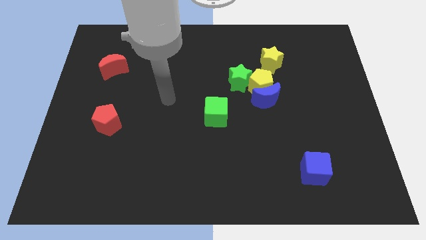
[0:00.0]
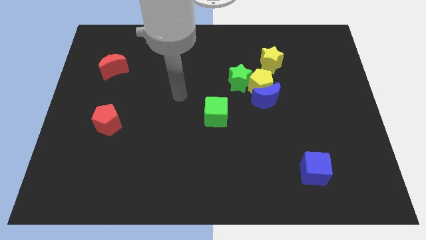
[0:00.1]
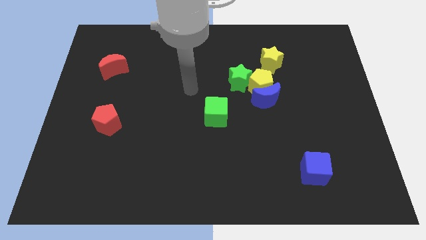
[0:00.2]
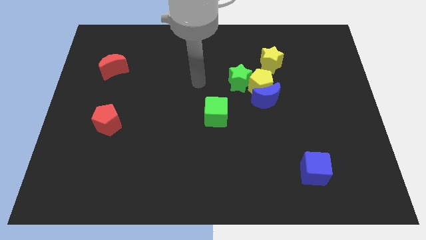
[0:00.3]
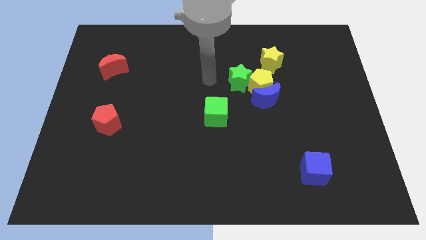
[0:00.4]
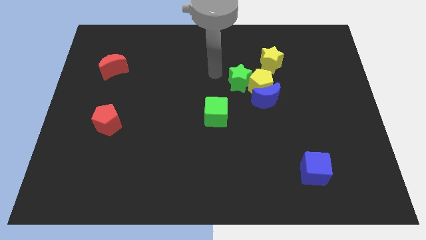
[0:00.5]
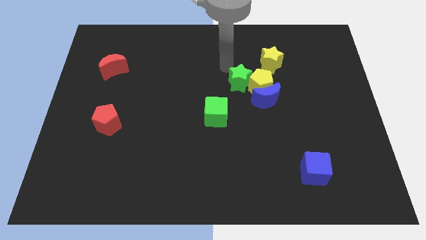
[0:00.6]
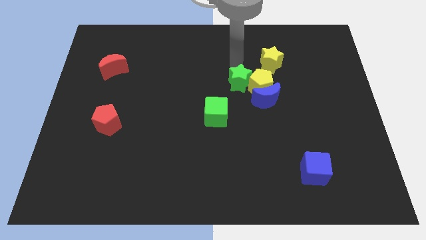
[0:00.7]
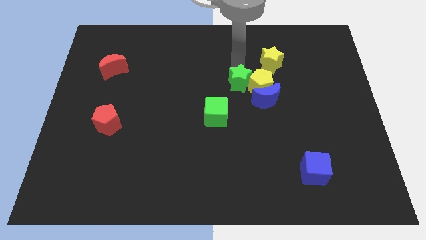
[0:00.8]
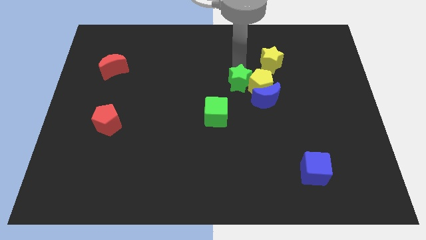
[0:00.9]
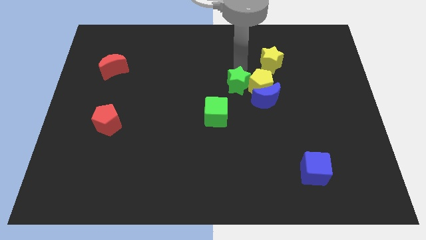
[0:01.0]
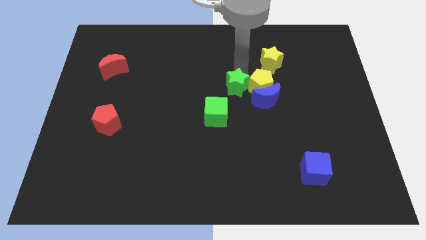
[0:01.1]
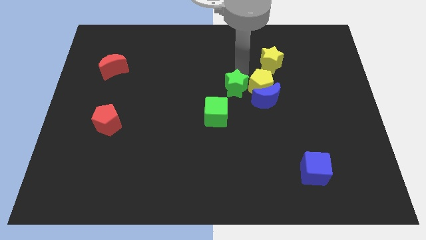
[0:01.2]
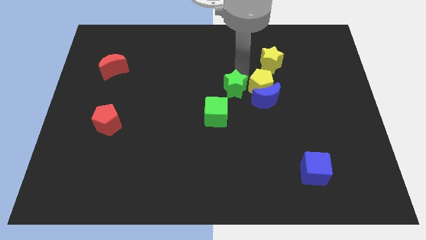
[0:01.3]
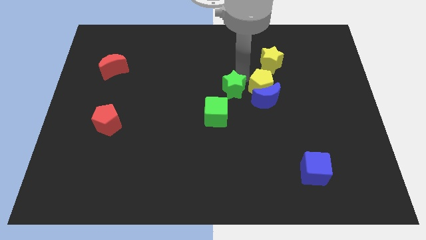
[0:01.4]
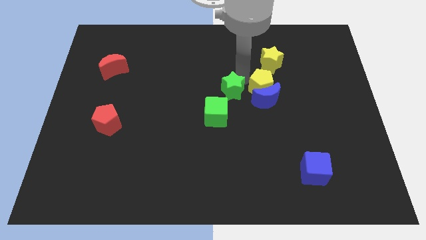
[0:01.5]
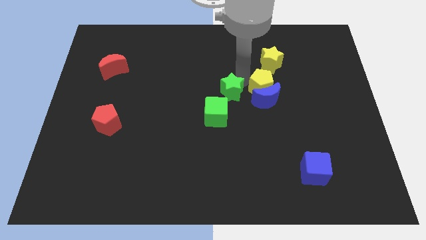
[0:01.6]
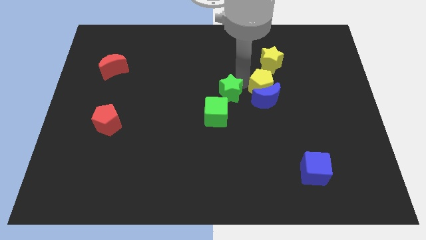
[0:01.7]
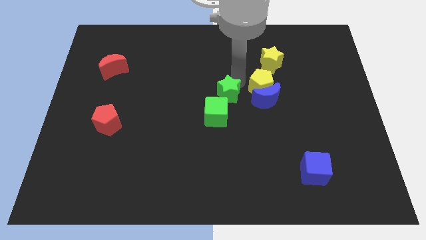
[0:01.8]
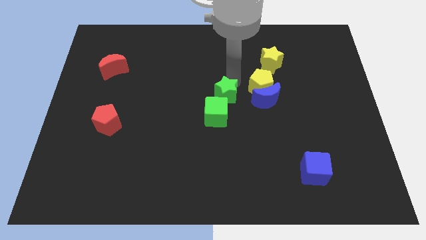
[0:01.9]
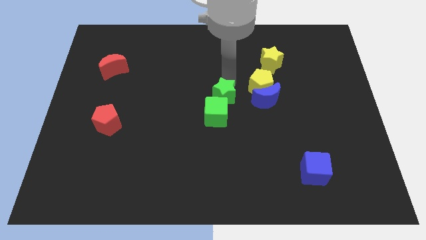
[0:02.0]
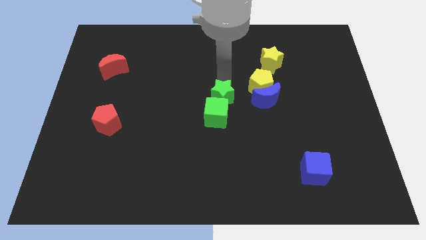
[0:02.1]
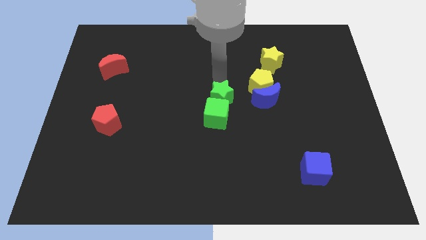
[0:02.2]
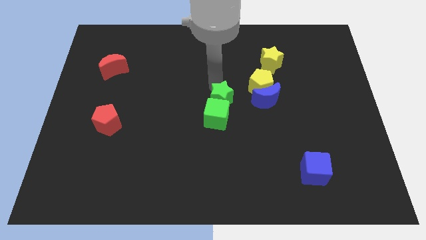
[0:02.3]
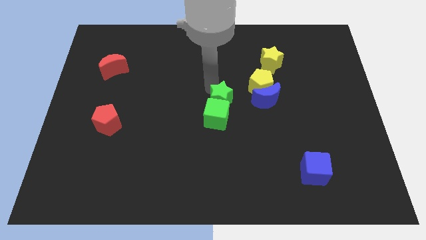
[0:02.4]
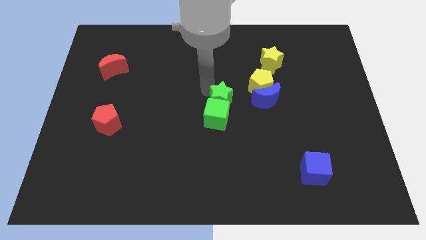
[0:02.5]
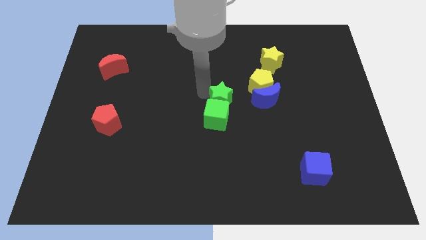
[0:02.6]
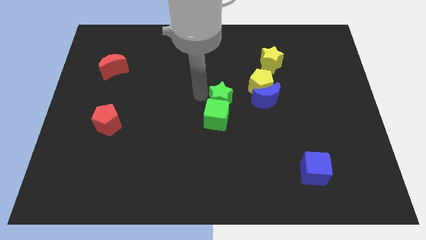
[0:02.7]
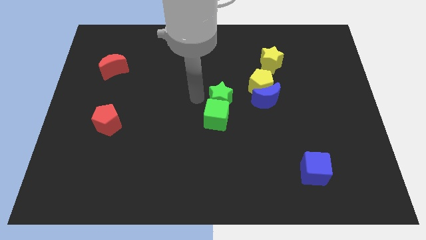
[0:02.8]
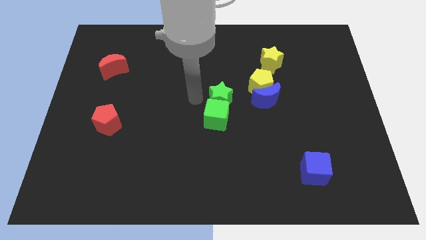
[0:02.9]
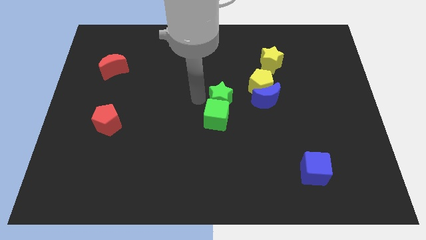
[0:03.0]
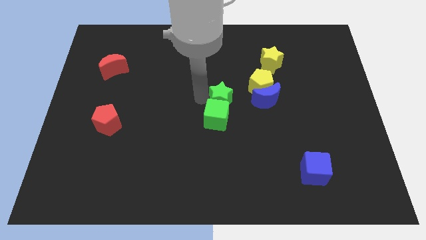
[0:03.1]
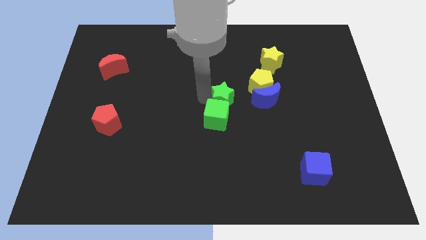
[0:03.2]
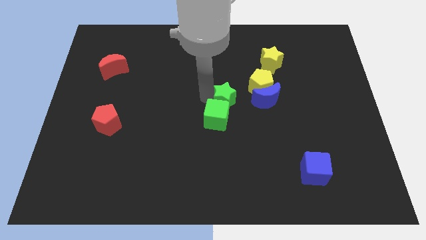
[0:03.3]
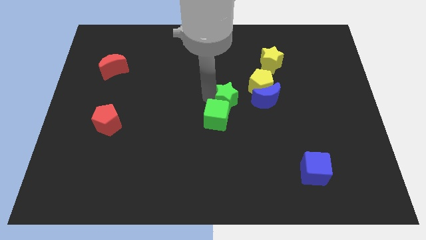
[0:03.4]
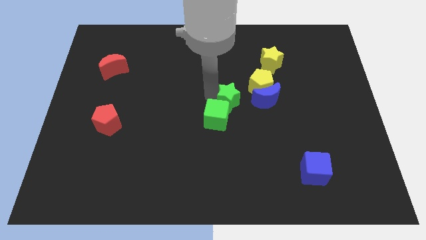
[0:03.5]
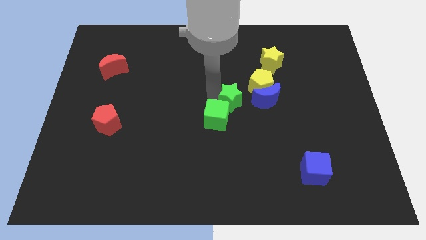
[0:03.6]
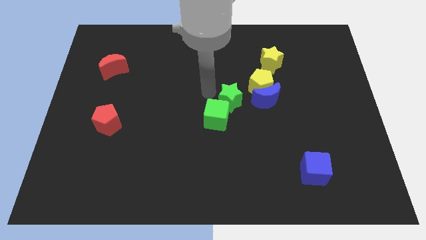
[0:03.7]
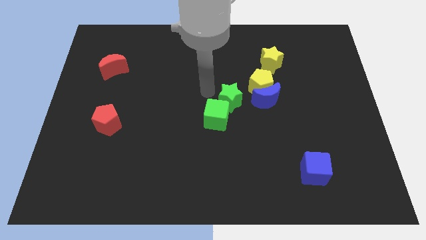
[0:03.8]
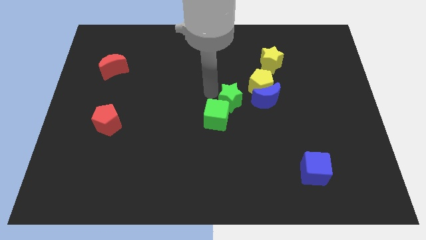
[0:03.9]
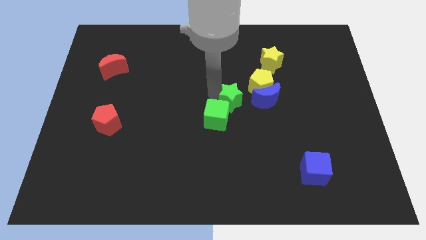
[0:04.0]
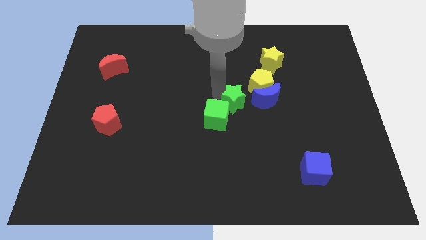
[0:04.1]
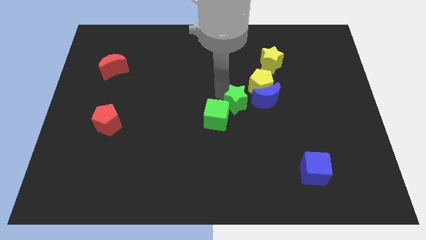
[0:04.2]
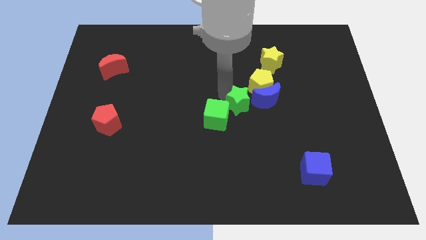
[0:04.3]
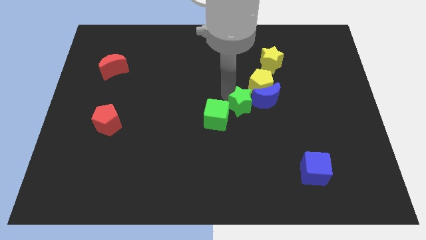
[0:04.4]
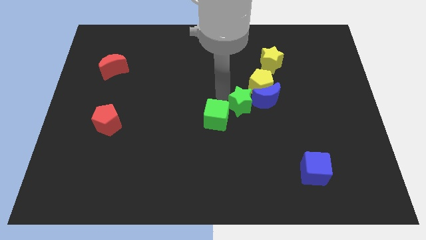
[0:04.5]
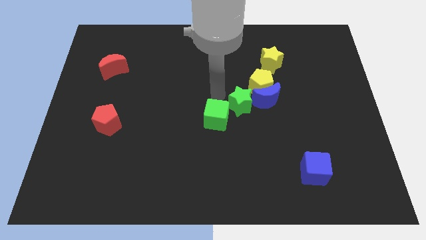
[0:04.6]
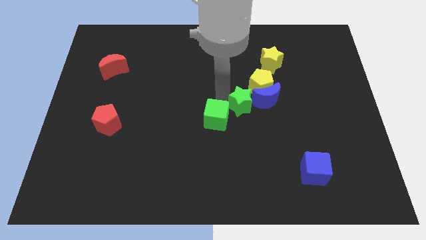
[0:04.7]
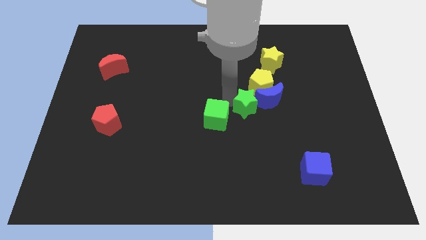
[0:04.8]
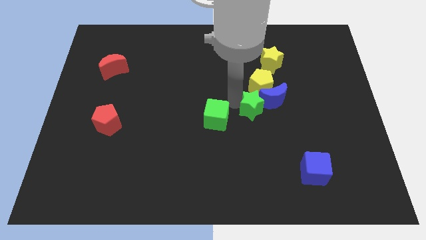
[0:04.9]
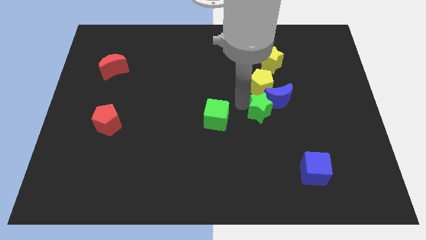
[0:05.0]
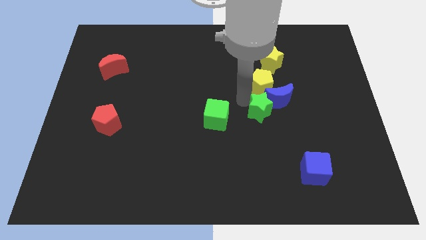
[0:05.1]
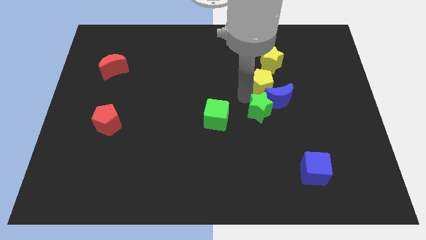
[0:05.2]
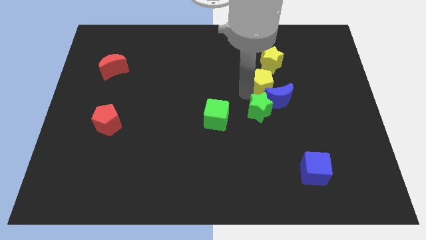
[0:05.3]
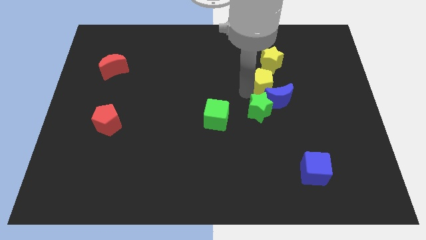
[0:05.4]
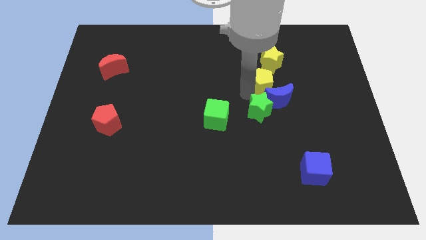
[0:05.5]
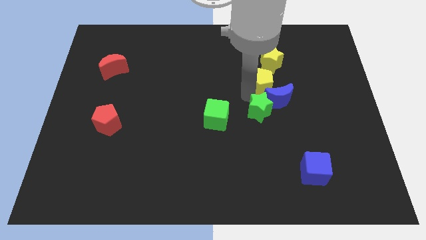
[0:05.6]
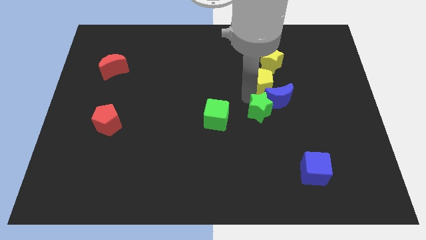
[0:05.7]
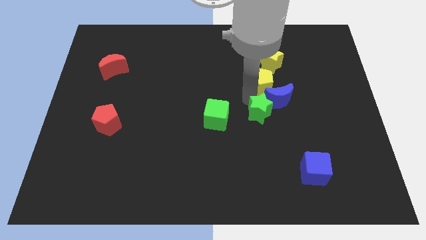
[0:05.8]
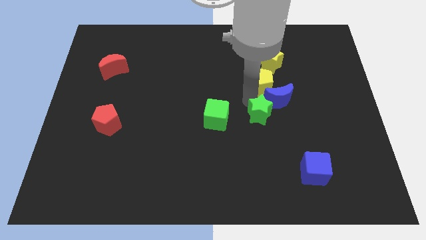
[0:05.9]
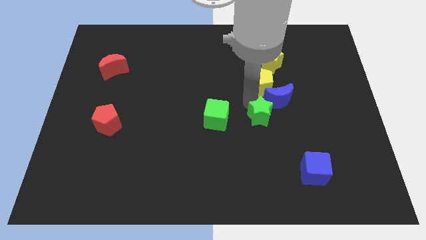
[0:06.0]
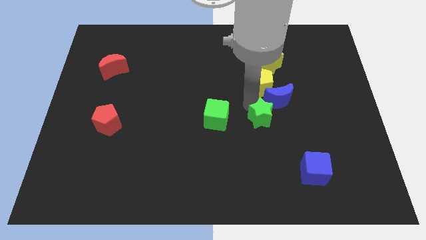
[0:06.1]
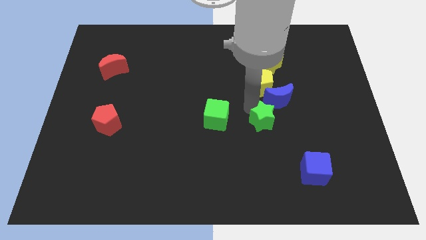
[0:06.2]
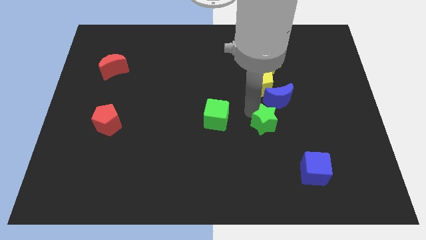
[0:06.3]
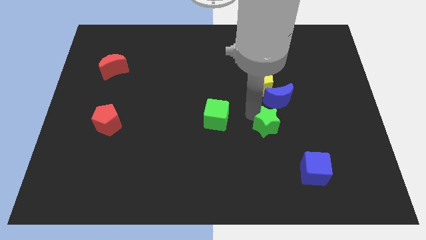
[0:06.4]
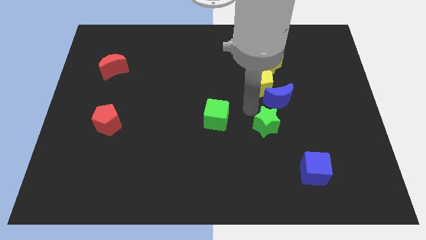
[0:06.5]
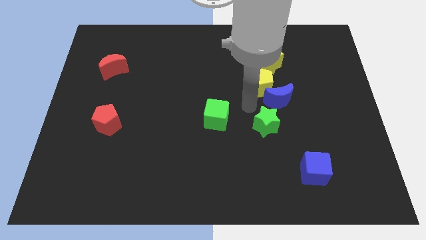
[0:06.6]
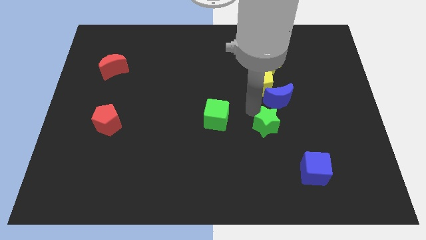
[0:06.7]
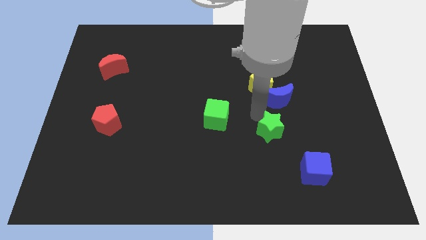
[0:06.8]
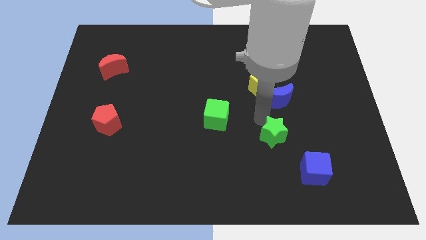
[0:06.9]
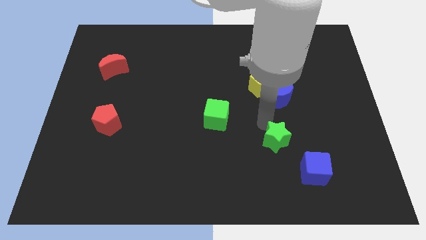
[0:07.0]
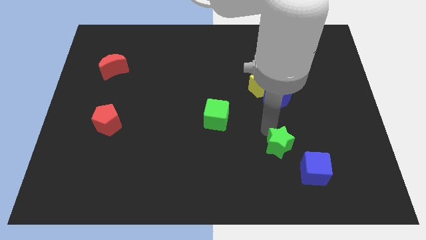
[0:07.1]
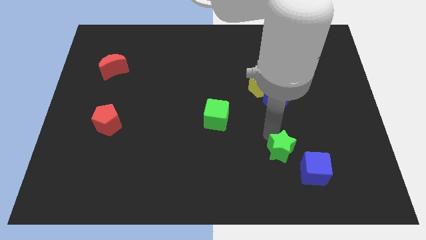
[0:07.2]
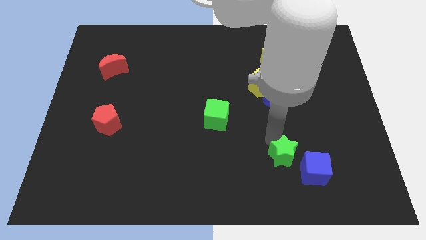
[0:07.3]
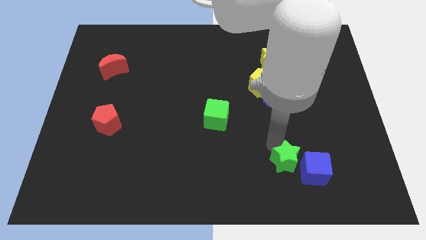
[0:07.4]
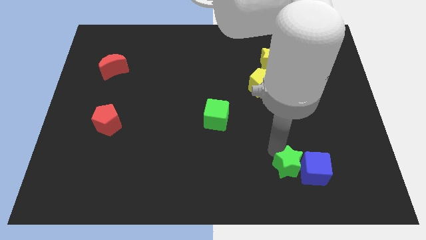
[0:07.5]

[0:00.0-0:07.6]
move the green star to the blue cube
